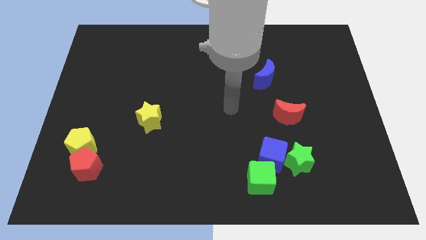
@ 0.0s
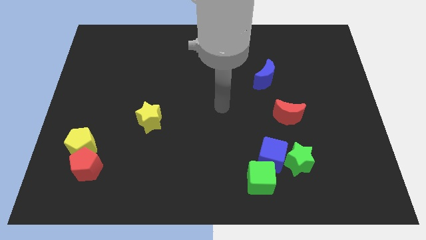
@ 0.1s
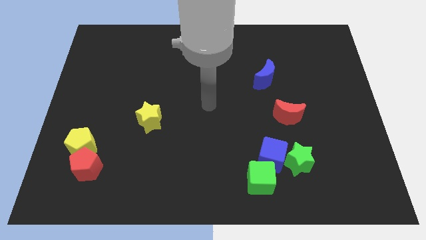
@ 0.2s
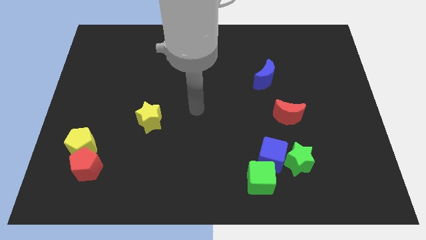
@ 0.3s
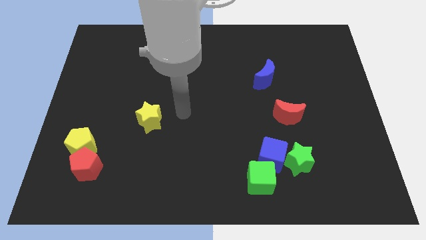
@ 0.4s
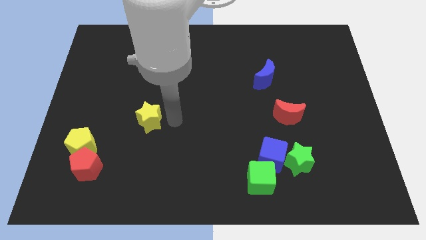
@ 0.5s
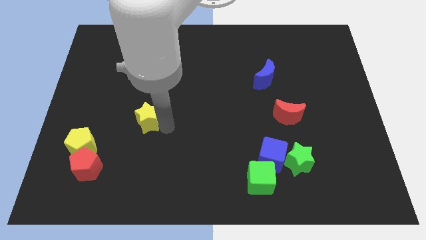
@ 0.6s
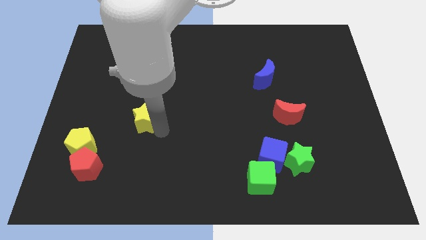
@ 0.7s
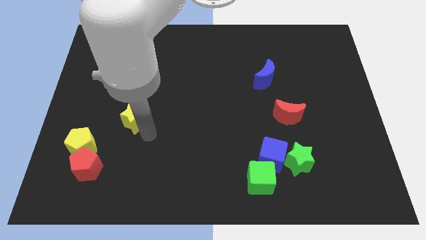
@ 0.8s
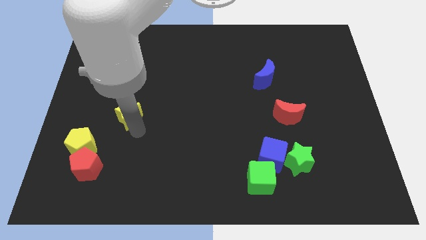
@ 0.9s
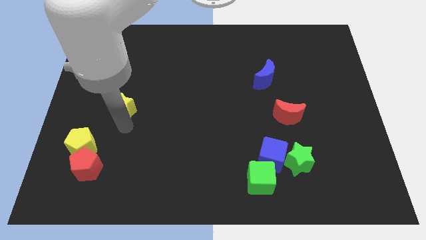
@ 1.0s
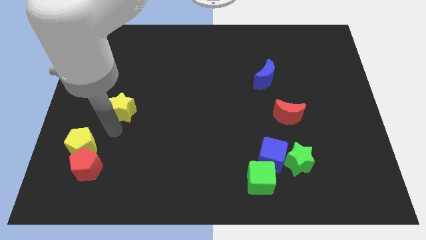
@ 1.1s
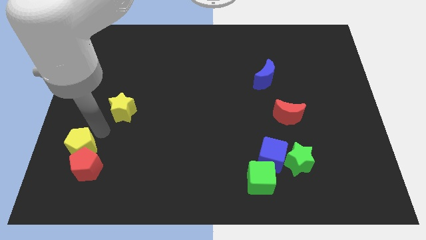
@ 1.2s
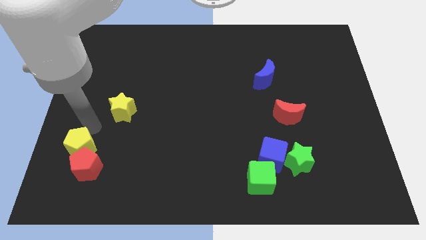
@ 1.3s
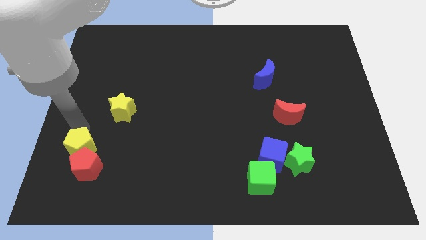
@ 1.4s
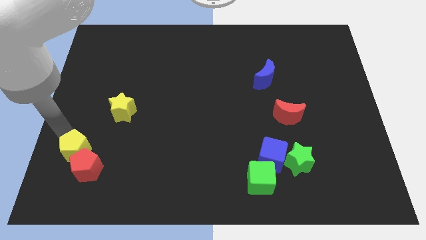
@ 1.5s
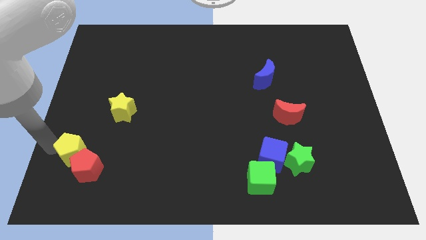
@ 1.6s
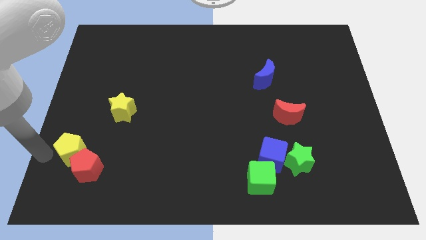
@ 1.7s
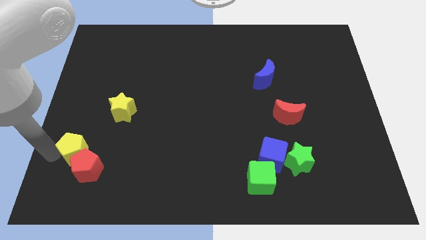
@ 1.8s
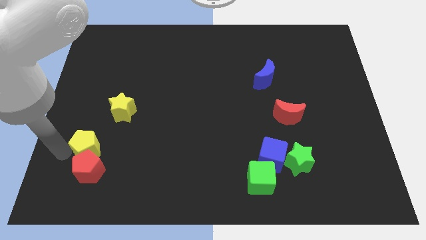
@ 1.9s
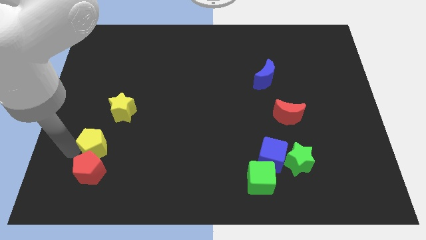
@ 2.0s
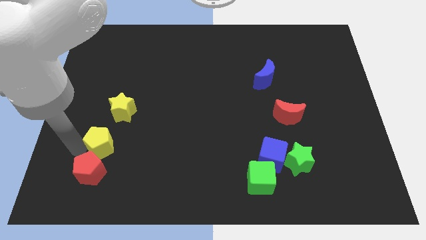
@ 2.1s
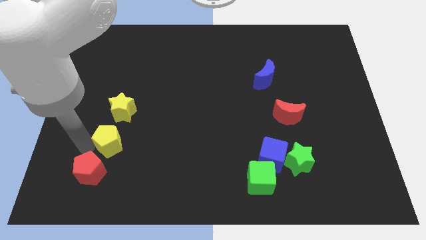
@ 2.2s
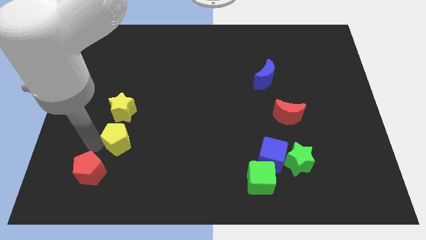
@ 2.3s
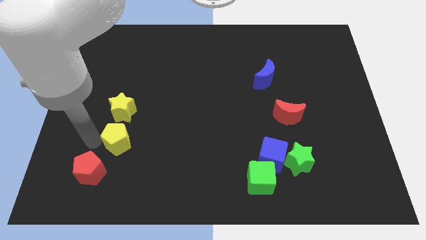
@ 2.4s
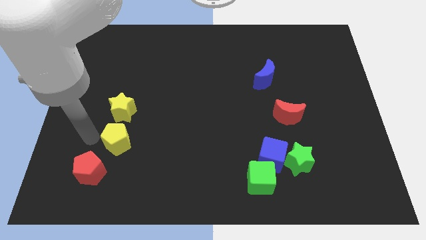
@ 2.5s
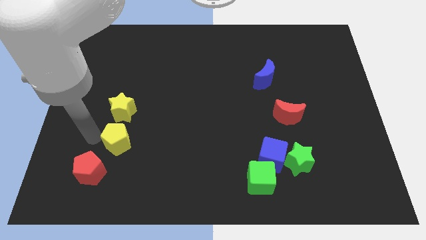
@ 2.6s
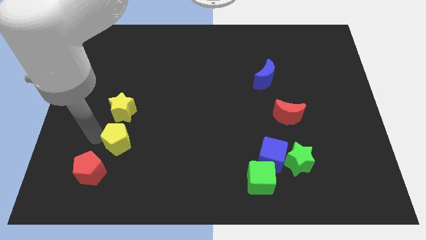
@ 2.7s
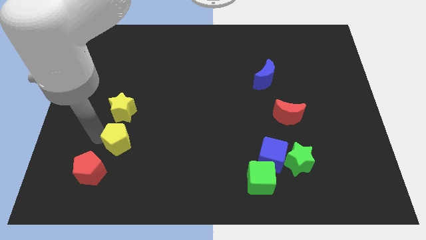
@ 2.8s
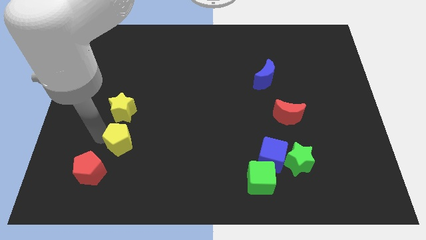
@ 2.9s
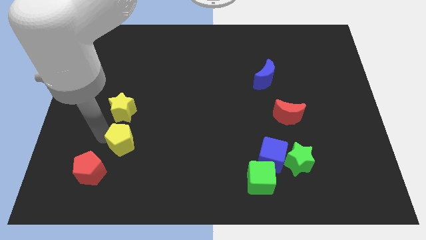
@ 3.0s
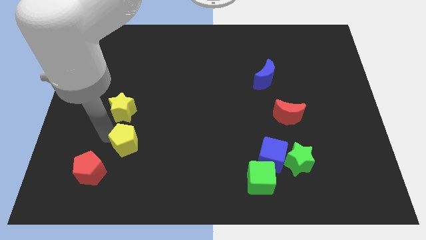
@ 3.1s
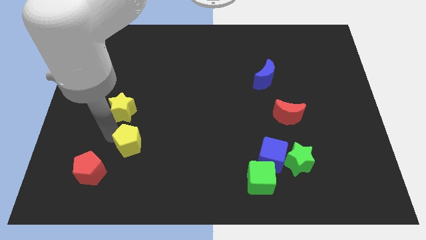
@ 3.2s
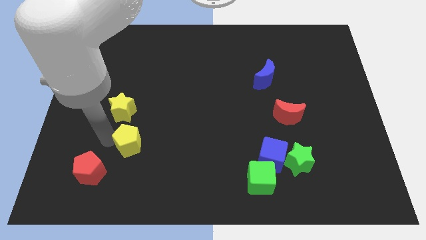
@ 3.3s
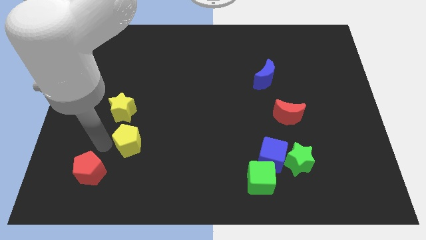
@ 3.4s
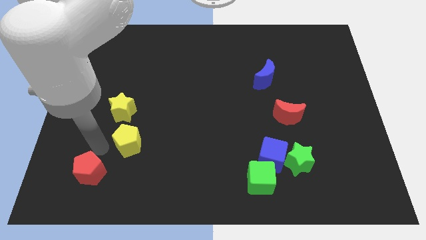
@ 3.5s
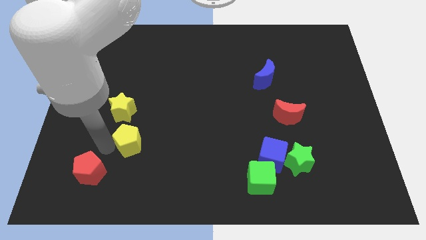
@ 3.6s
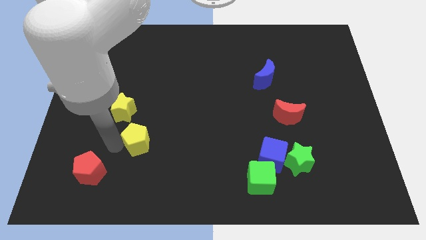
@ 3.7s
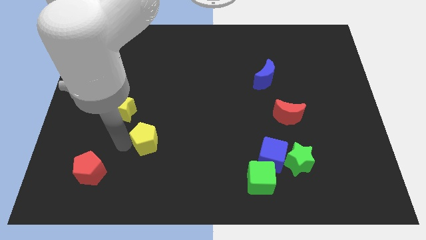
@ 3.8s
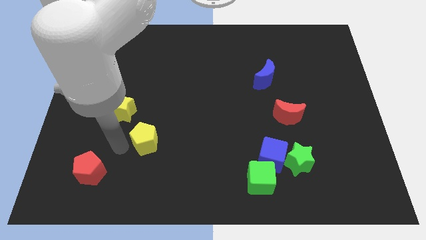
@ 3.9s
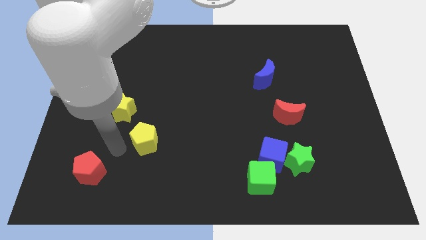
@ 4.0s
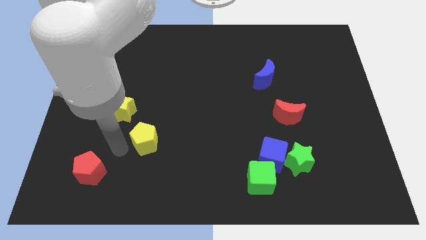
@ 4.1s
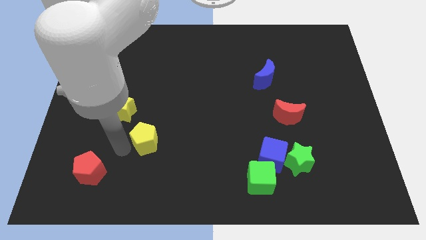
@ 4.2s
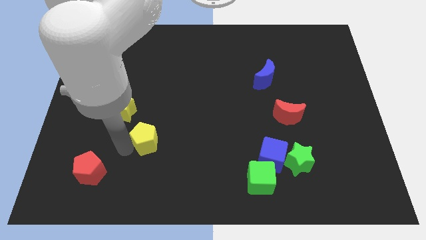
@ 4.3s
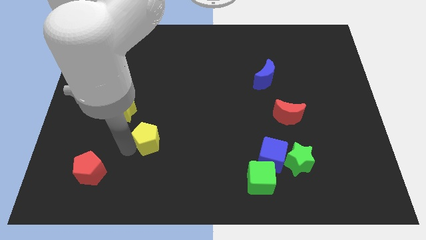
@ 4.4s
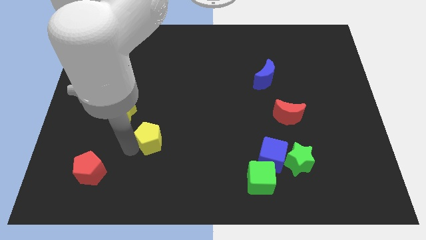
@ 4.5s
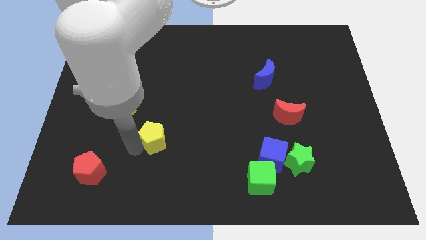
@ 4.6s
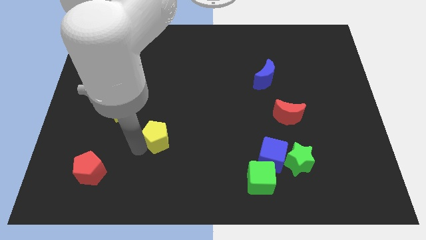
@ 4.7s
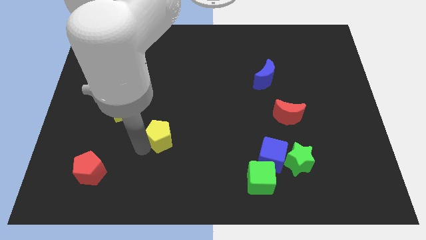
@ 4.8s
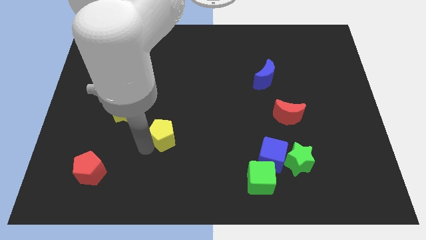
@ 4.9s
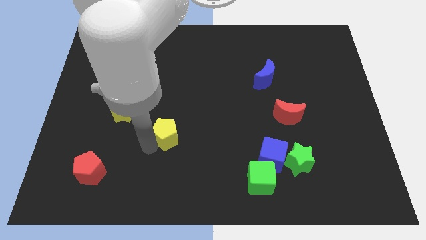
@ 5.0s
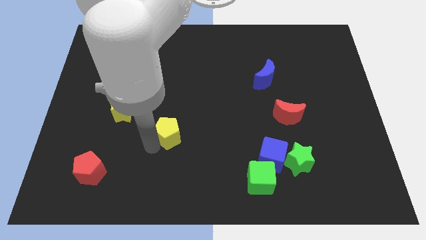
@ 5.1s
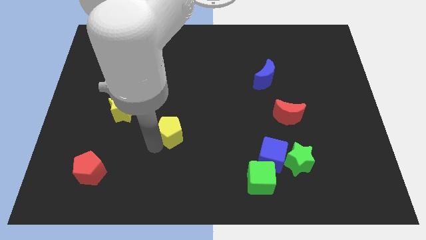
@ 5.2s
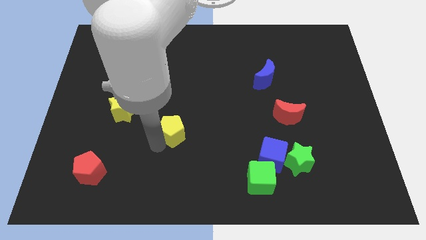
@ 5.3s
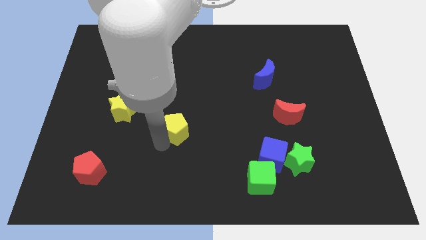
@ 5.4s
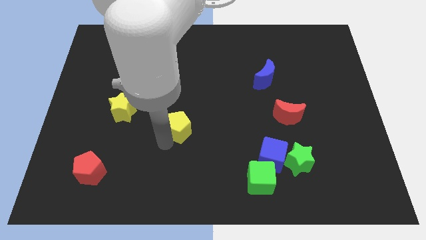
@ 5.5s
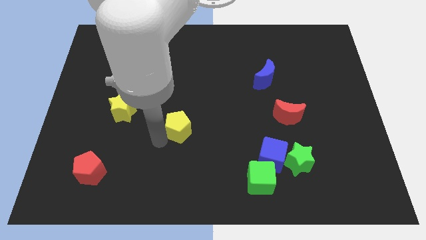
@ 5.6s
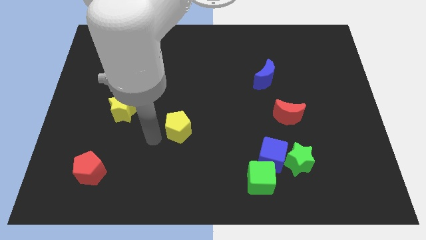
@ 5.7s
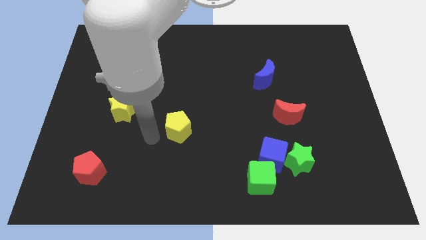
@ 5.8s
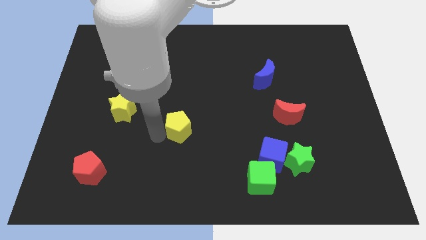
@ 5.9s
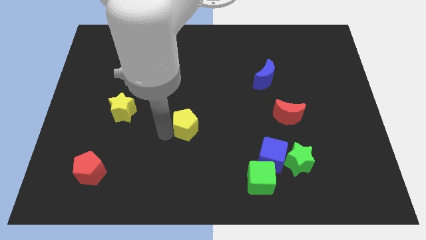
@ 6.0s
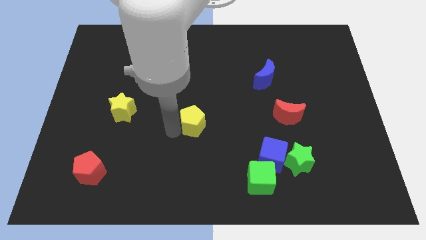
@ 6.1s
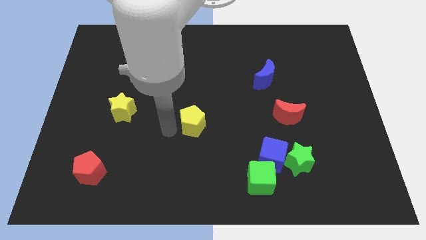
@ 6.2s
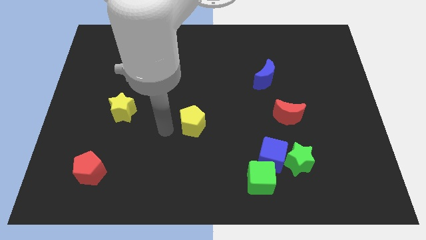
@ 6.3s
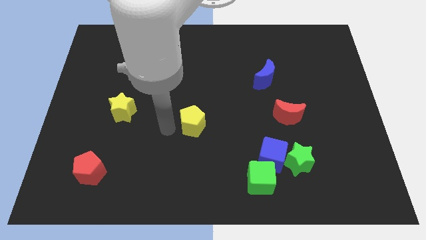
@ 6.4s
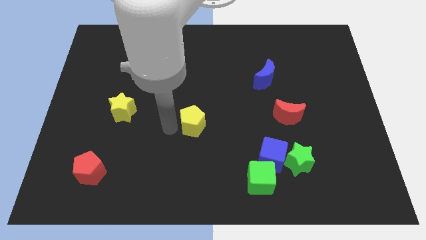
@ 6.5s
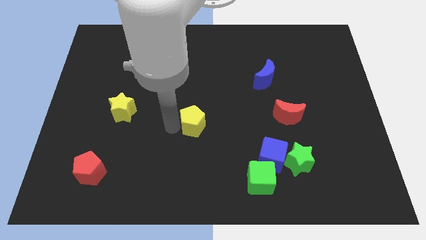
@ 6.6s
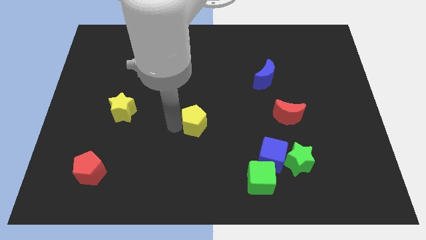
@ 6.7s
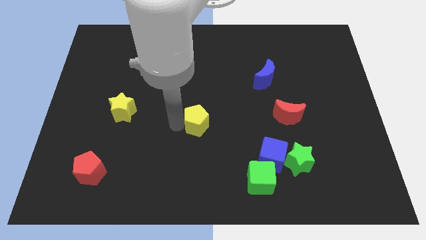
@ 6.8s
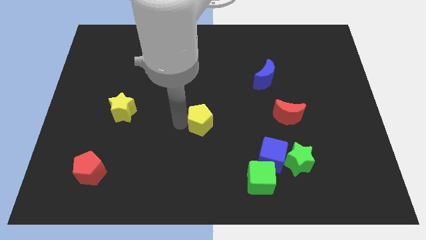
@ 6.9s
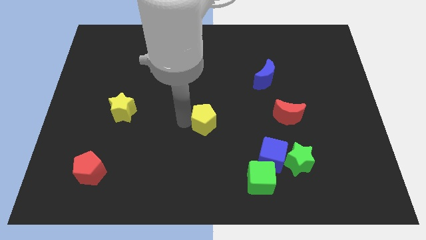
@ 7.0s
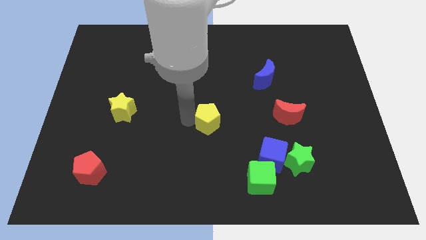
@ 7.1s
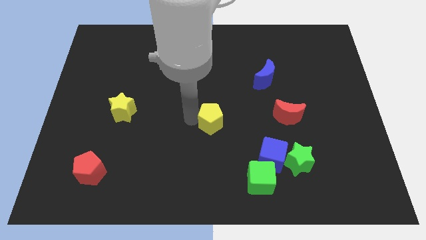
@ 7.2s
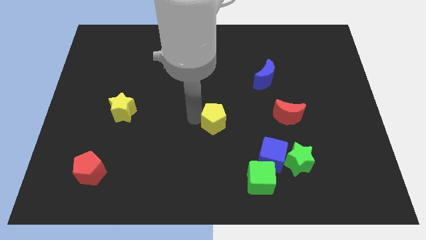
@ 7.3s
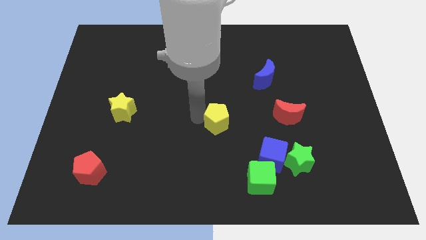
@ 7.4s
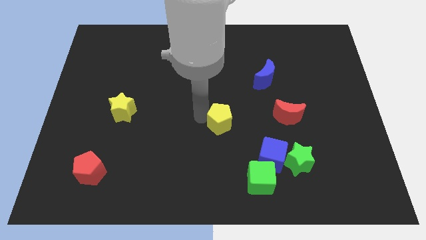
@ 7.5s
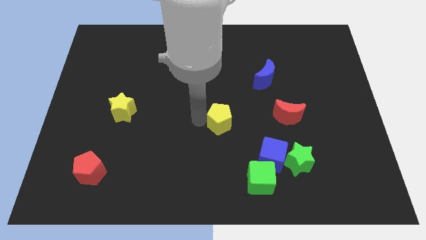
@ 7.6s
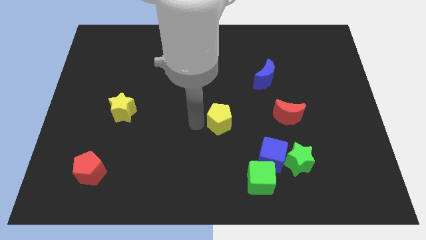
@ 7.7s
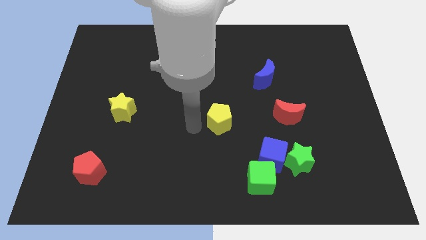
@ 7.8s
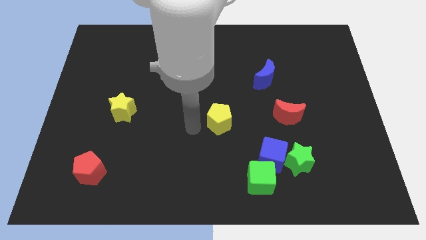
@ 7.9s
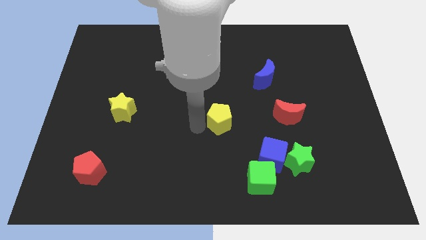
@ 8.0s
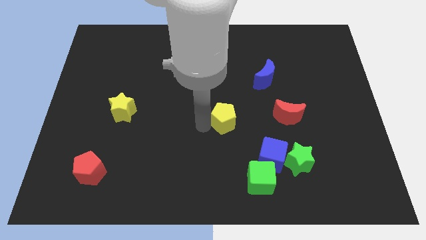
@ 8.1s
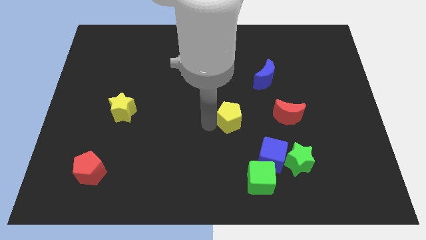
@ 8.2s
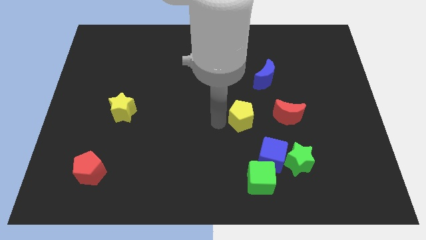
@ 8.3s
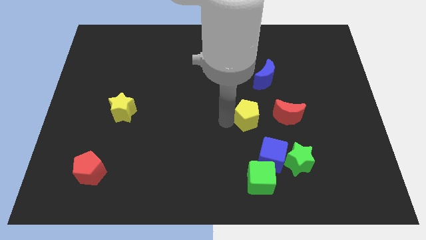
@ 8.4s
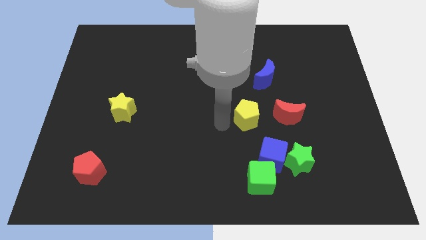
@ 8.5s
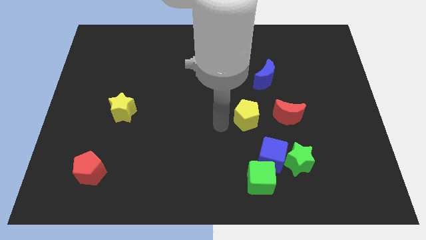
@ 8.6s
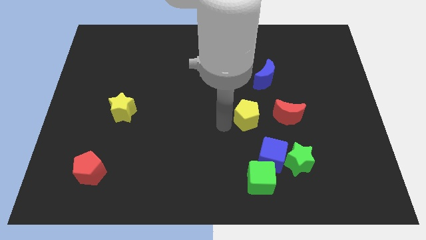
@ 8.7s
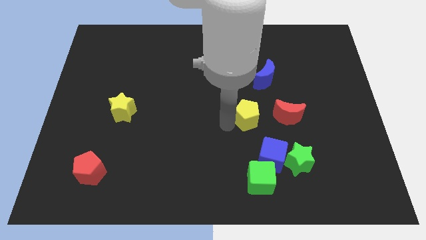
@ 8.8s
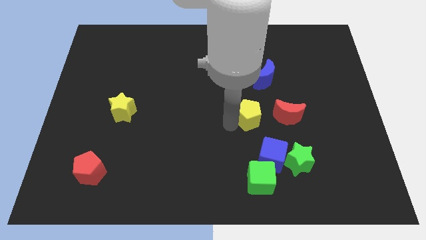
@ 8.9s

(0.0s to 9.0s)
slide the yellow pentagon to the bottom side of the blue moon
